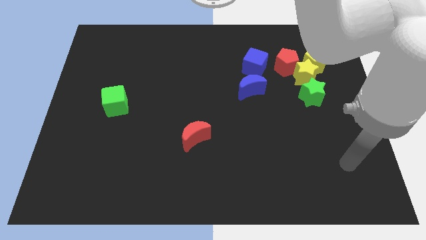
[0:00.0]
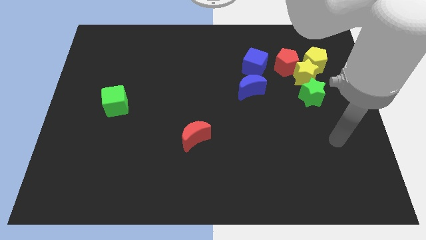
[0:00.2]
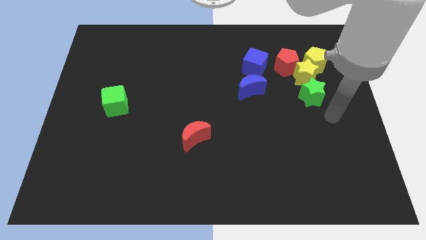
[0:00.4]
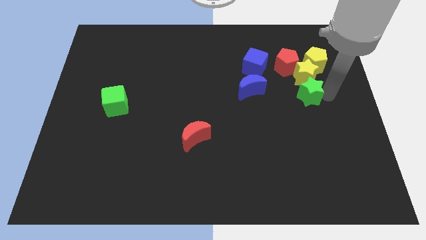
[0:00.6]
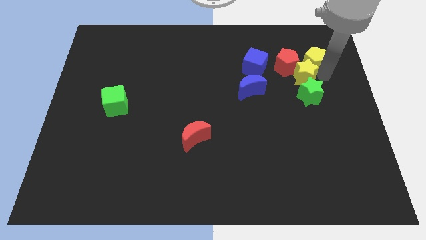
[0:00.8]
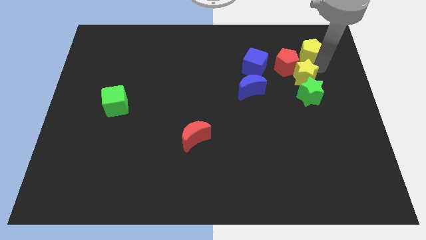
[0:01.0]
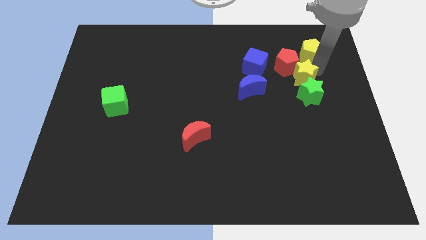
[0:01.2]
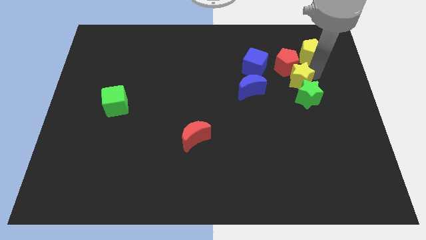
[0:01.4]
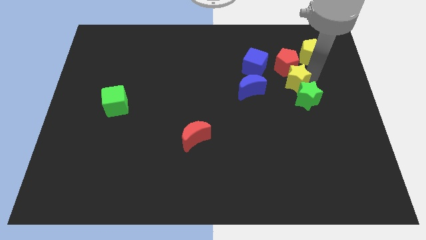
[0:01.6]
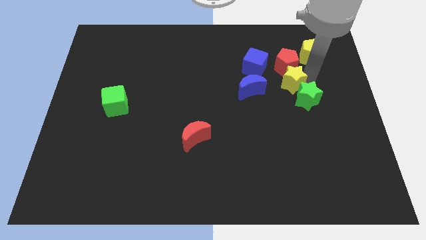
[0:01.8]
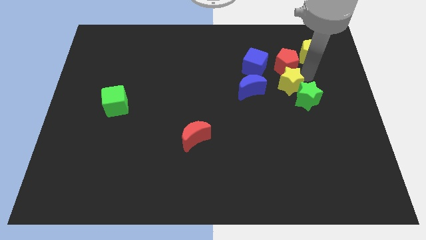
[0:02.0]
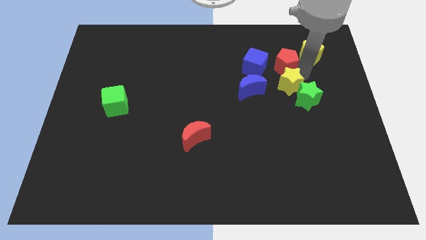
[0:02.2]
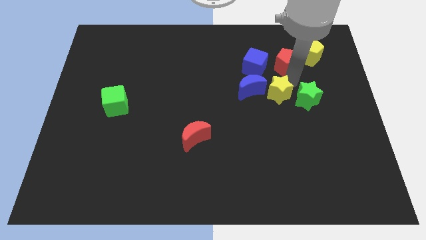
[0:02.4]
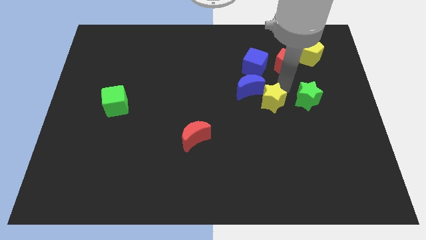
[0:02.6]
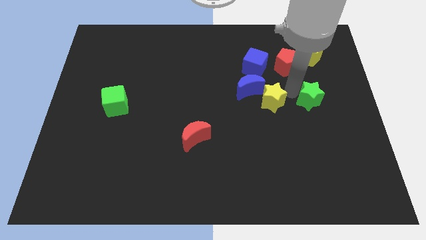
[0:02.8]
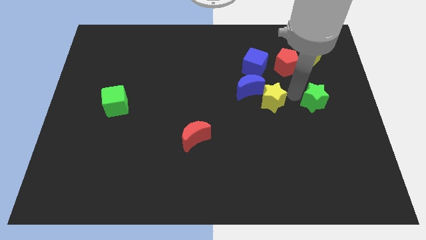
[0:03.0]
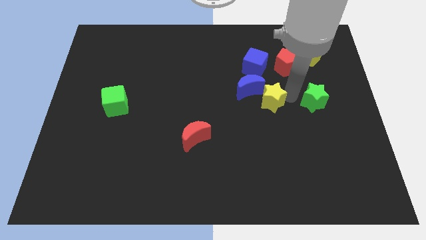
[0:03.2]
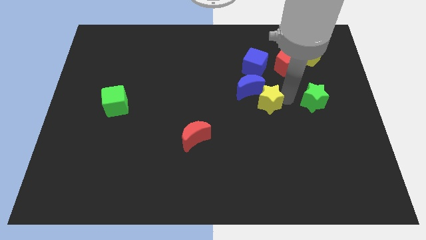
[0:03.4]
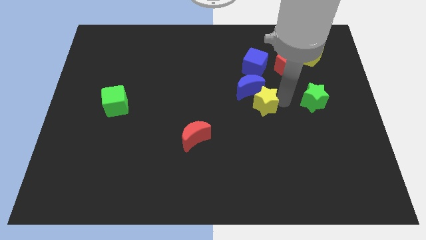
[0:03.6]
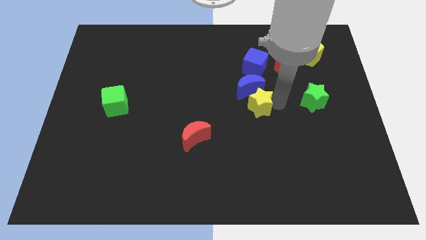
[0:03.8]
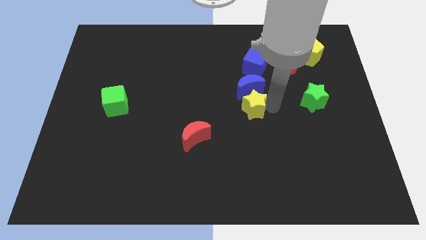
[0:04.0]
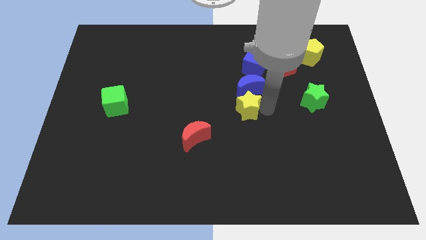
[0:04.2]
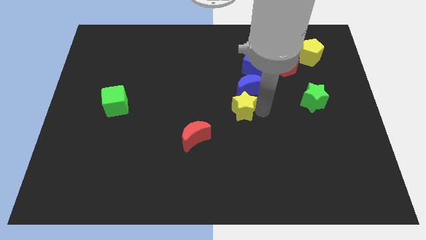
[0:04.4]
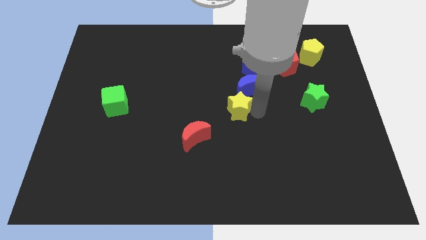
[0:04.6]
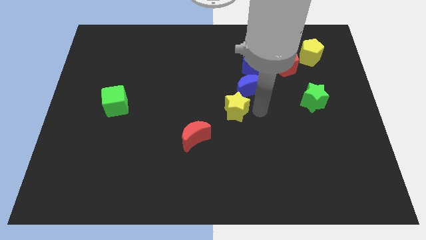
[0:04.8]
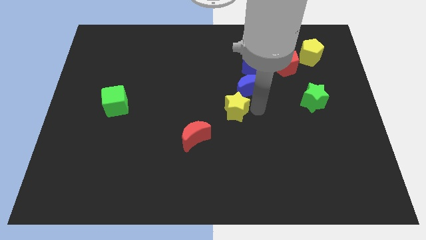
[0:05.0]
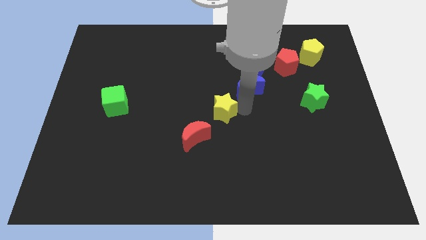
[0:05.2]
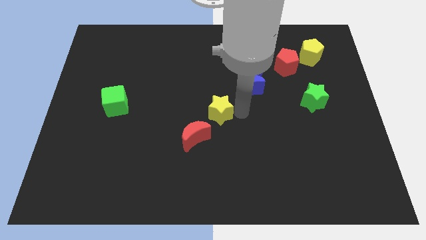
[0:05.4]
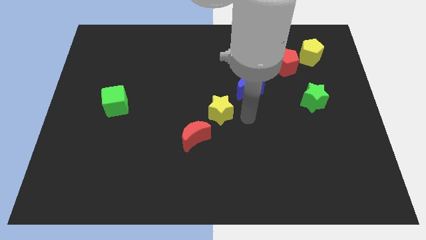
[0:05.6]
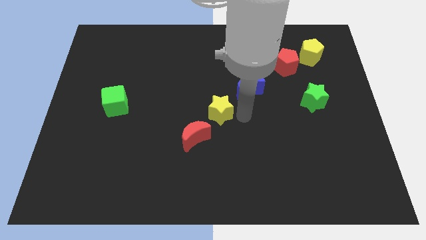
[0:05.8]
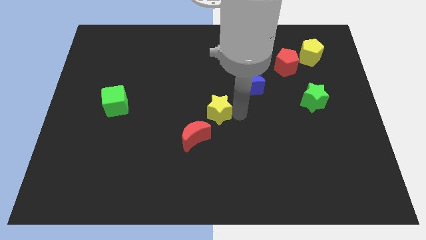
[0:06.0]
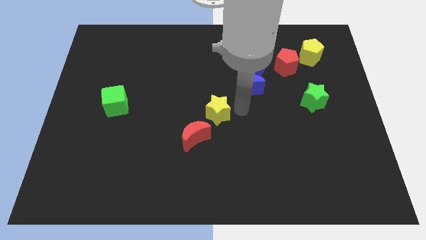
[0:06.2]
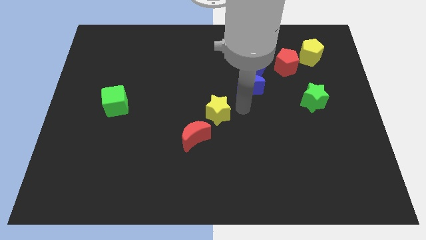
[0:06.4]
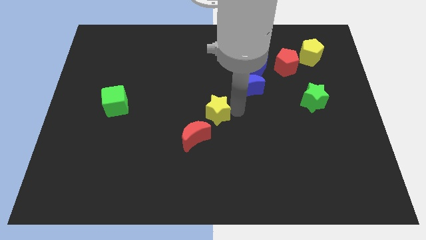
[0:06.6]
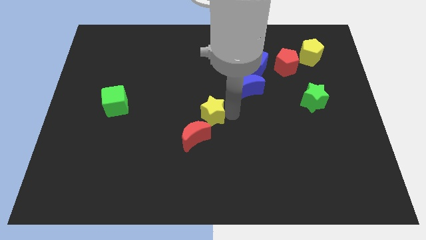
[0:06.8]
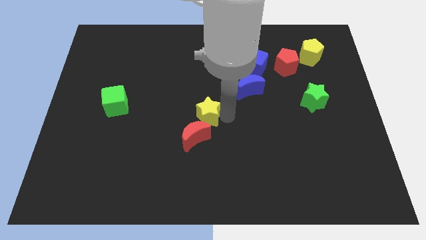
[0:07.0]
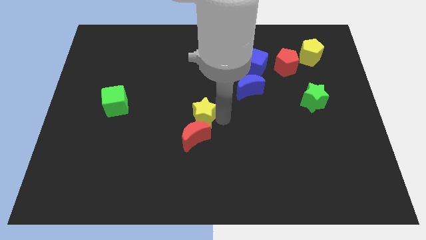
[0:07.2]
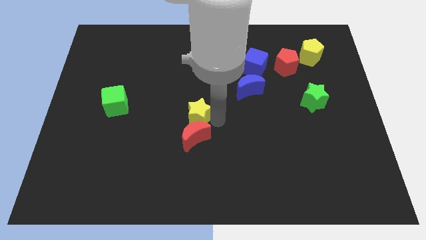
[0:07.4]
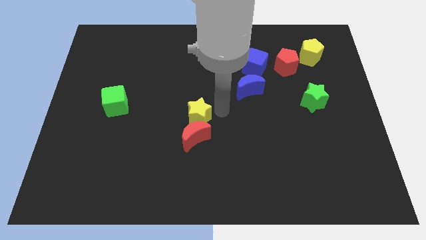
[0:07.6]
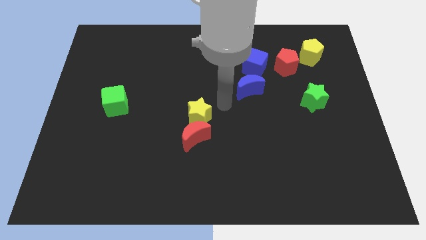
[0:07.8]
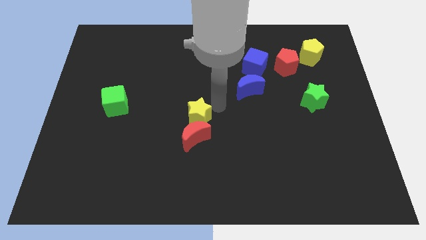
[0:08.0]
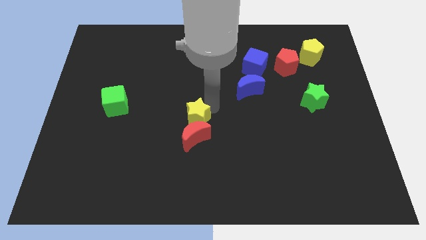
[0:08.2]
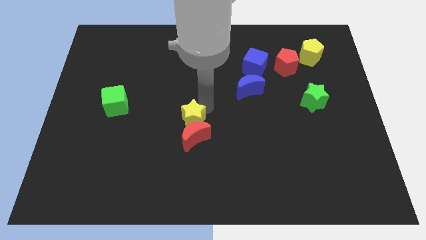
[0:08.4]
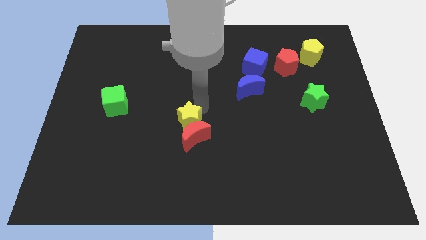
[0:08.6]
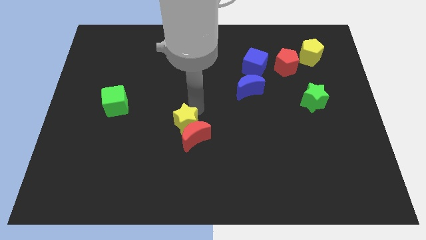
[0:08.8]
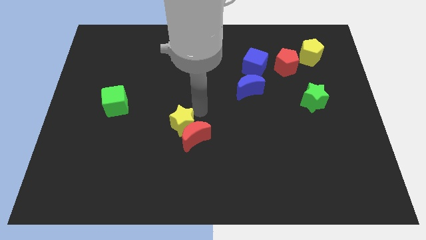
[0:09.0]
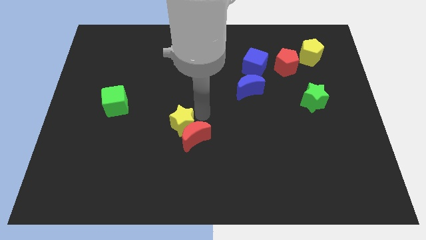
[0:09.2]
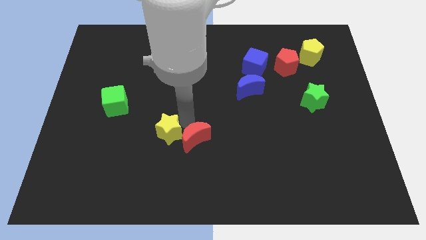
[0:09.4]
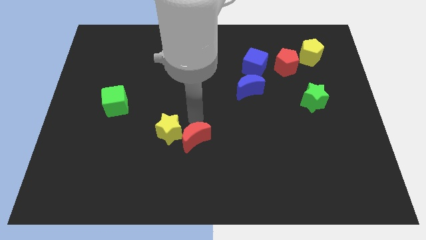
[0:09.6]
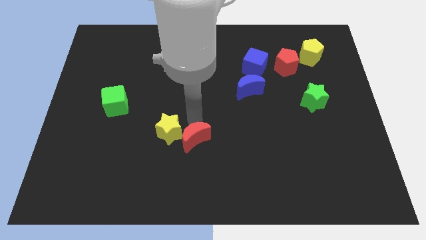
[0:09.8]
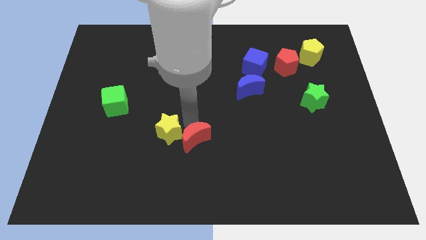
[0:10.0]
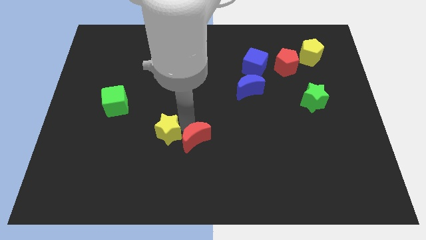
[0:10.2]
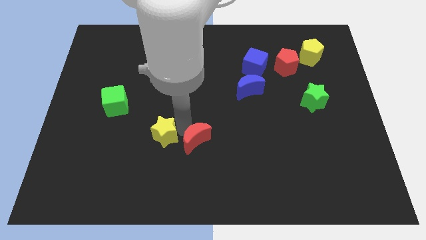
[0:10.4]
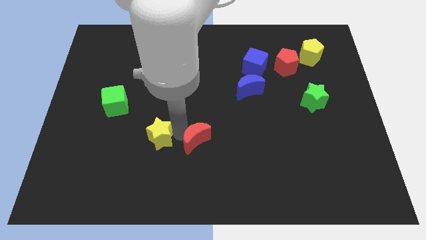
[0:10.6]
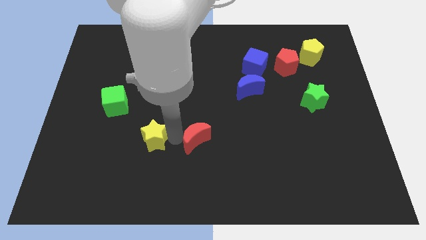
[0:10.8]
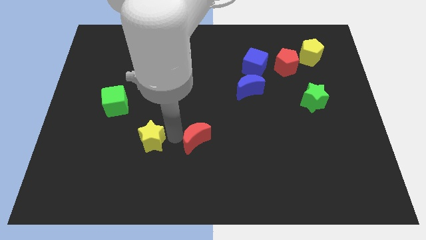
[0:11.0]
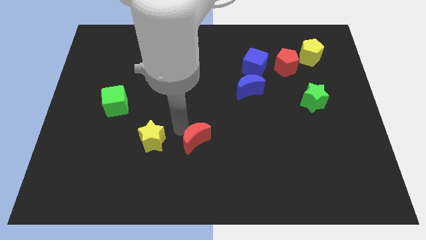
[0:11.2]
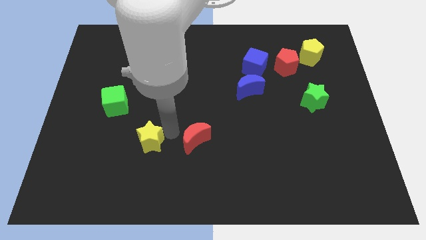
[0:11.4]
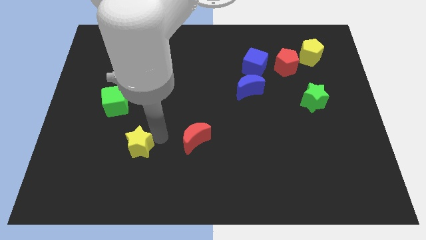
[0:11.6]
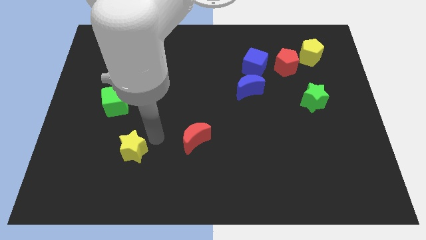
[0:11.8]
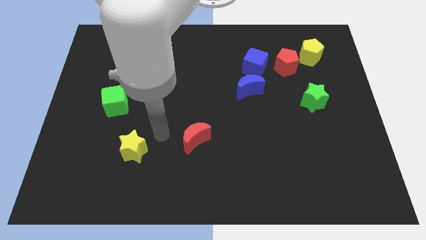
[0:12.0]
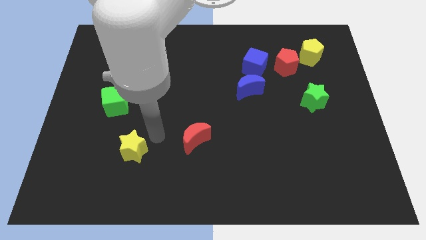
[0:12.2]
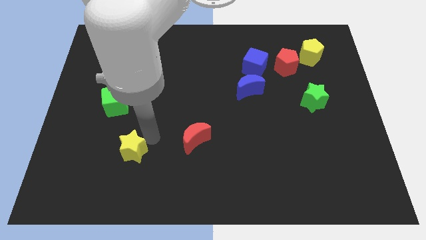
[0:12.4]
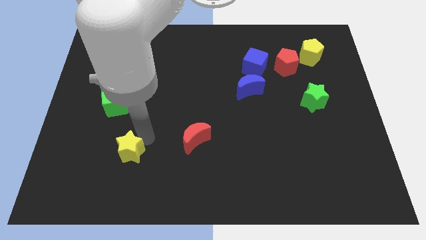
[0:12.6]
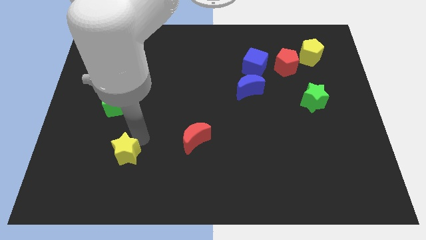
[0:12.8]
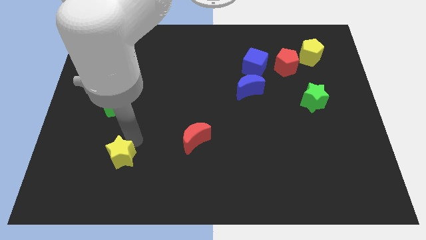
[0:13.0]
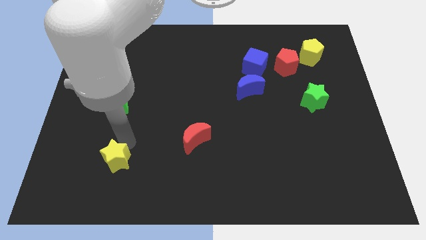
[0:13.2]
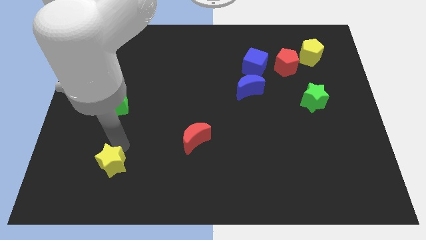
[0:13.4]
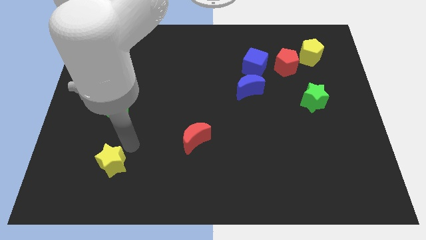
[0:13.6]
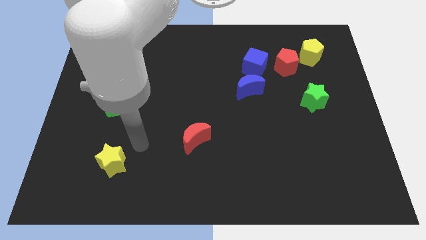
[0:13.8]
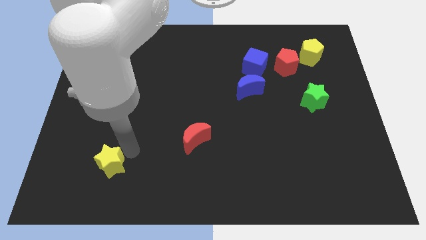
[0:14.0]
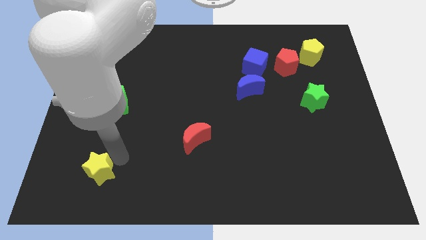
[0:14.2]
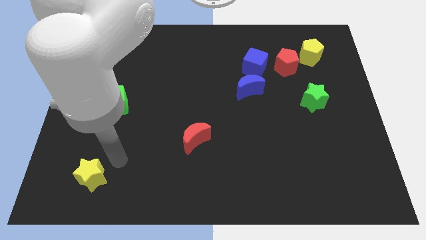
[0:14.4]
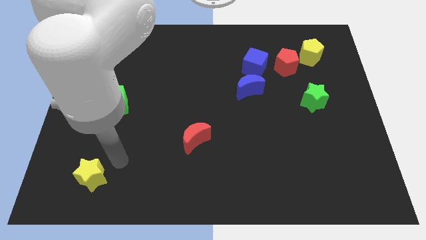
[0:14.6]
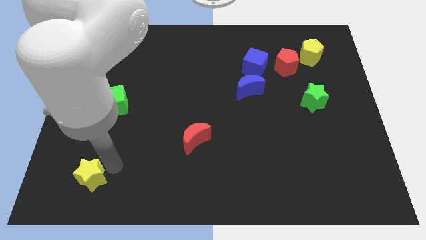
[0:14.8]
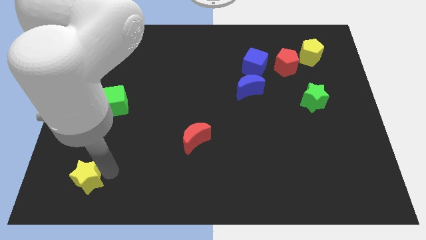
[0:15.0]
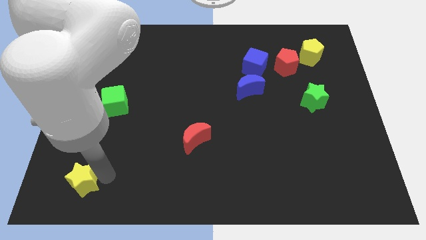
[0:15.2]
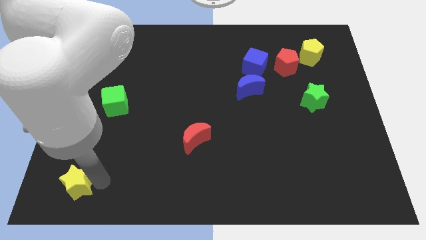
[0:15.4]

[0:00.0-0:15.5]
push the yellow star to the bottom left corner

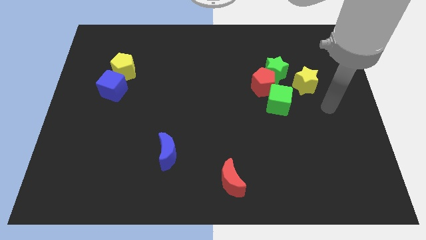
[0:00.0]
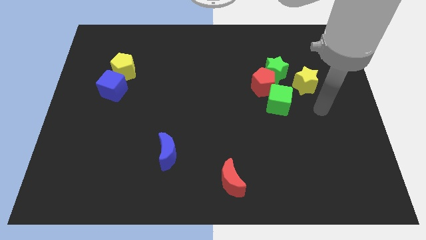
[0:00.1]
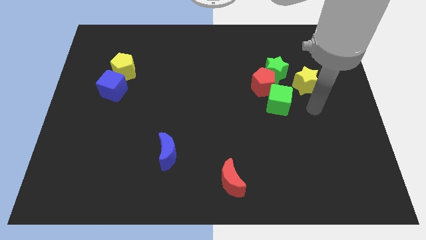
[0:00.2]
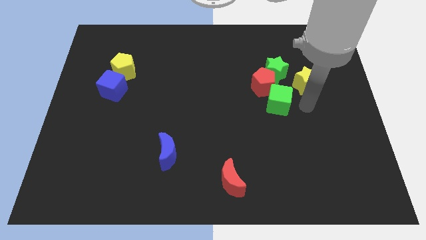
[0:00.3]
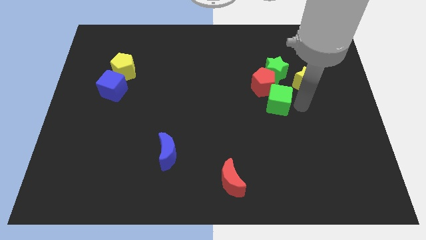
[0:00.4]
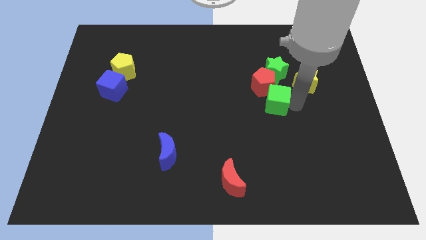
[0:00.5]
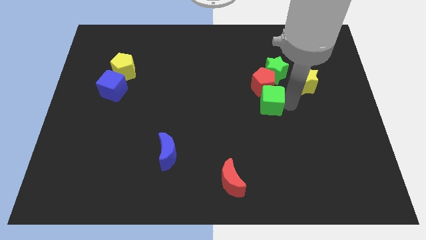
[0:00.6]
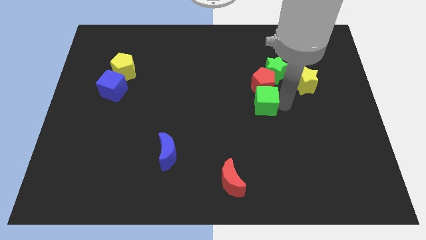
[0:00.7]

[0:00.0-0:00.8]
slide the green cube to the middle of the board
